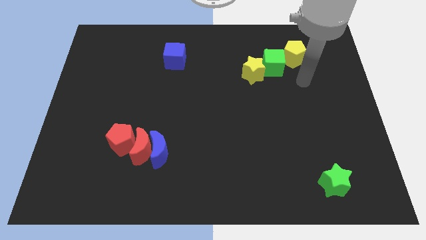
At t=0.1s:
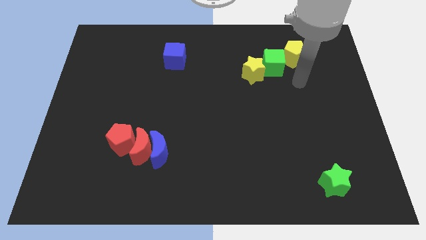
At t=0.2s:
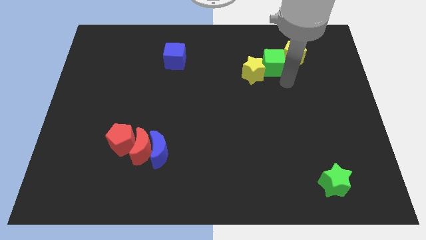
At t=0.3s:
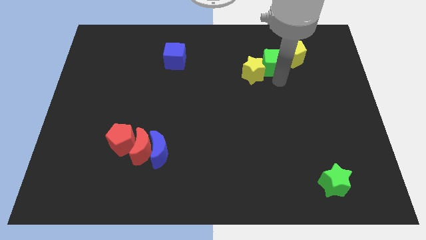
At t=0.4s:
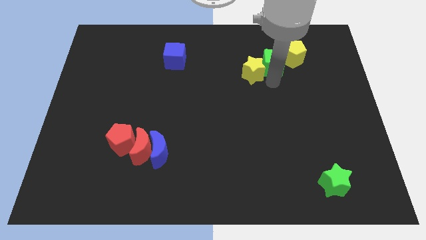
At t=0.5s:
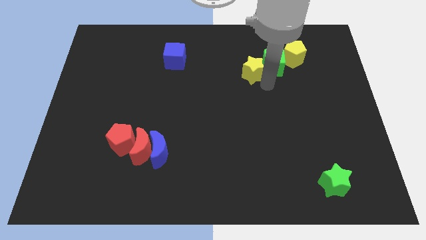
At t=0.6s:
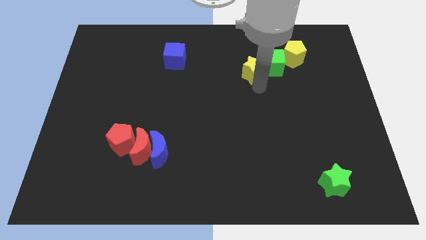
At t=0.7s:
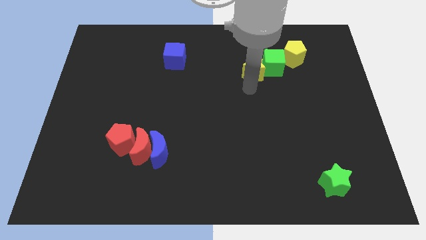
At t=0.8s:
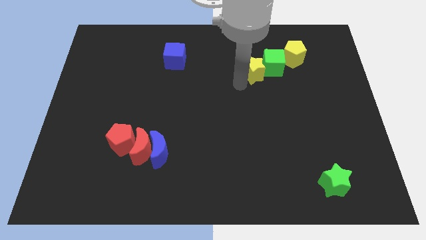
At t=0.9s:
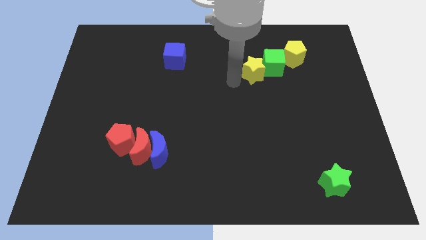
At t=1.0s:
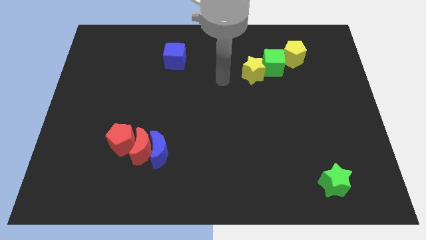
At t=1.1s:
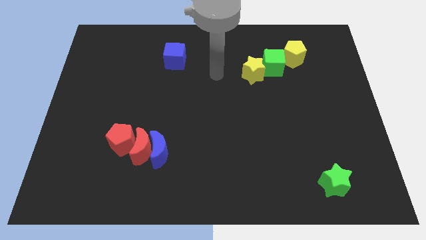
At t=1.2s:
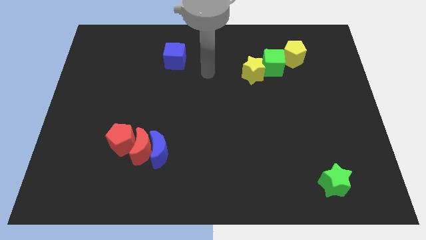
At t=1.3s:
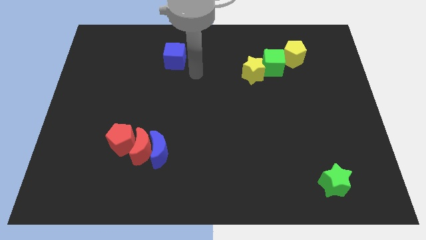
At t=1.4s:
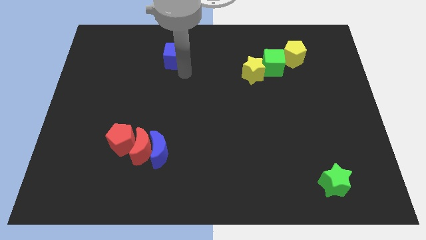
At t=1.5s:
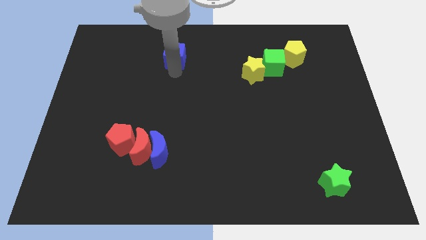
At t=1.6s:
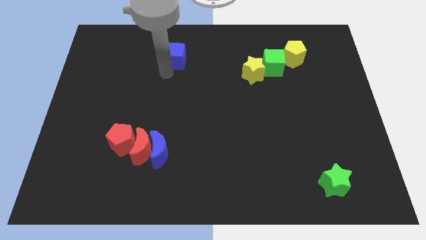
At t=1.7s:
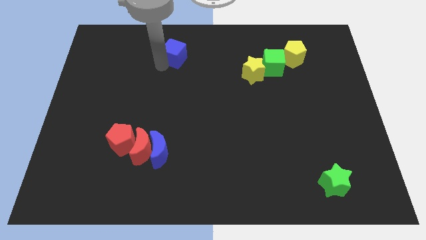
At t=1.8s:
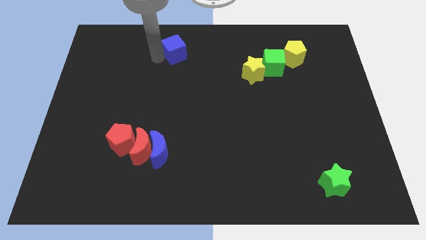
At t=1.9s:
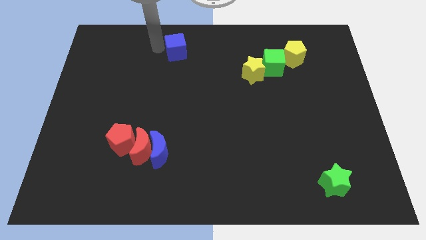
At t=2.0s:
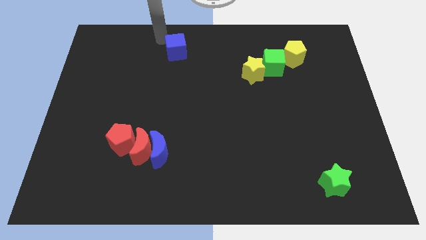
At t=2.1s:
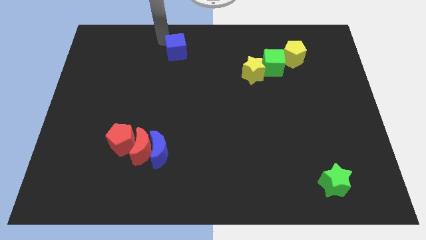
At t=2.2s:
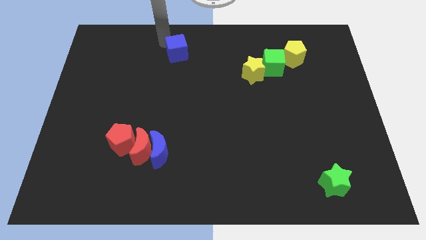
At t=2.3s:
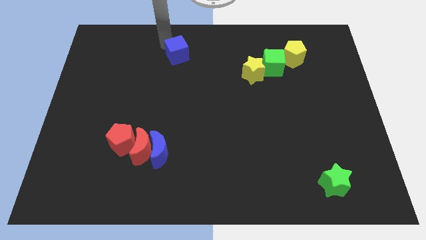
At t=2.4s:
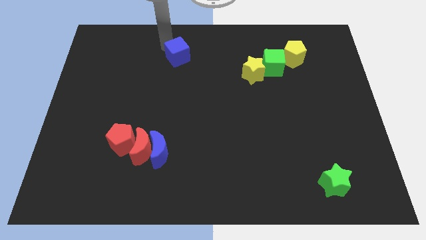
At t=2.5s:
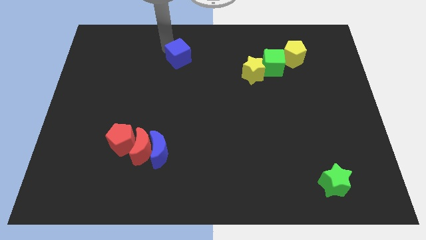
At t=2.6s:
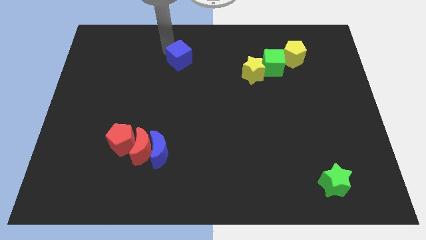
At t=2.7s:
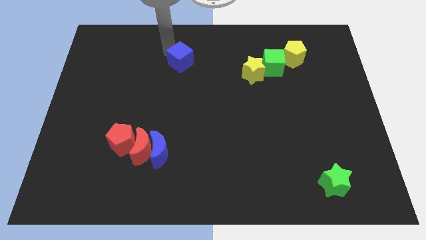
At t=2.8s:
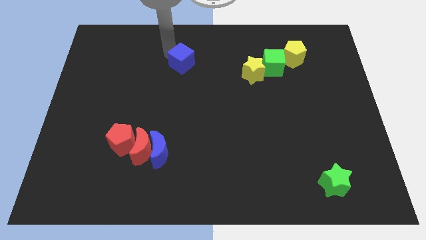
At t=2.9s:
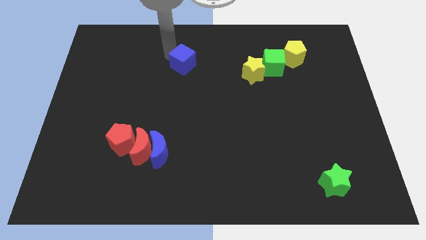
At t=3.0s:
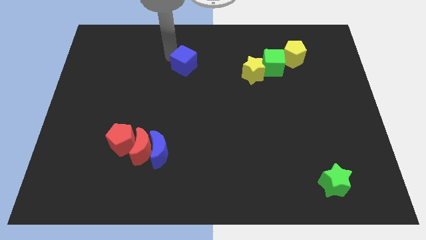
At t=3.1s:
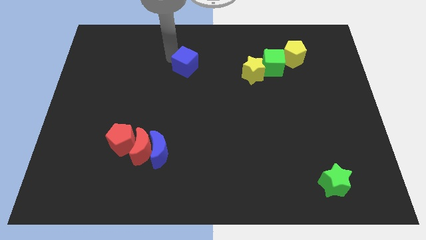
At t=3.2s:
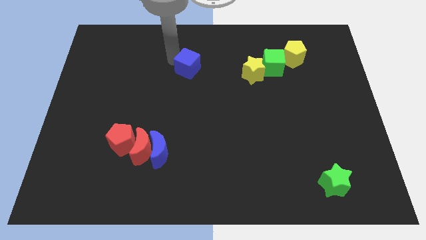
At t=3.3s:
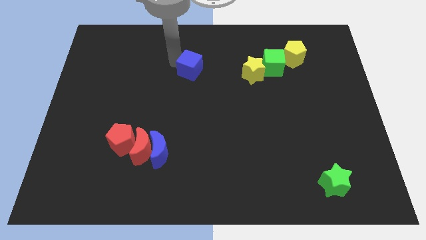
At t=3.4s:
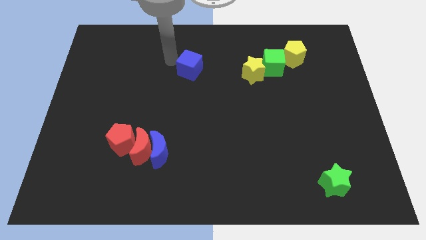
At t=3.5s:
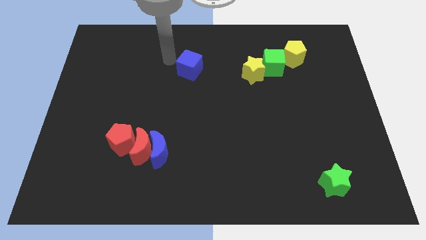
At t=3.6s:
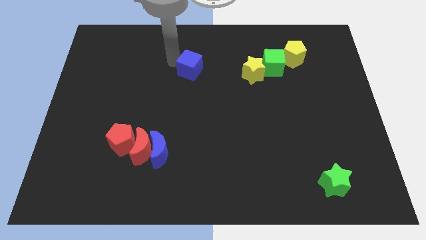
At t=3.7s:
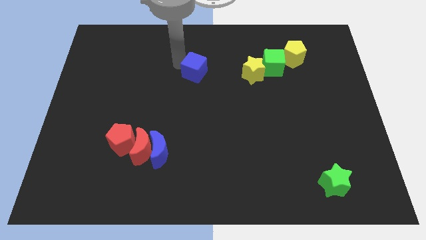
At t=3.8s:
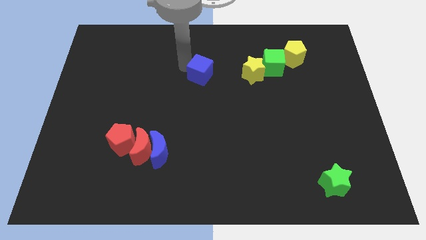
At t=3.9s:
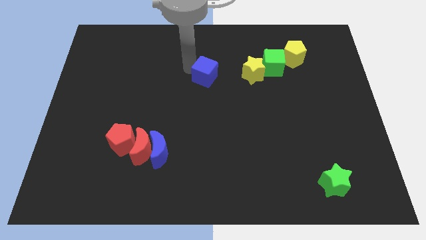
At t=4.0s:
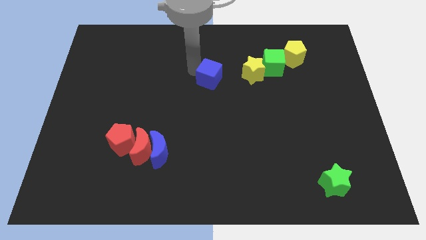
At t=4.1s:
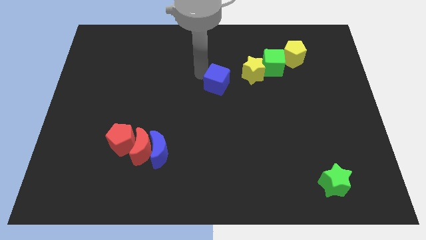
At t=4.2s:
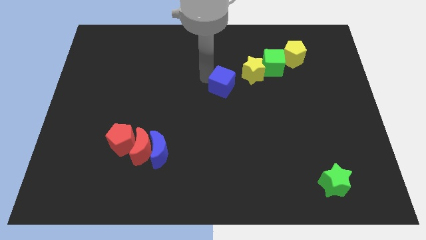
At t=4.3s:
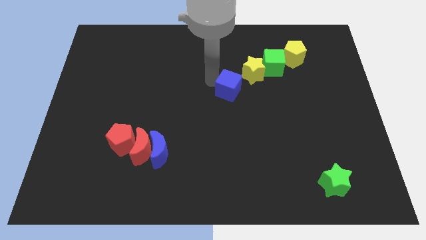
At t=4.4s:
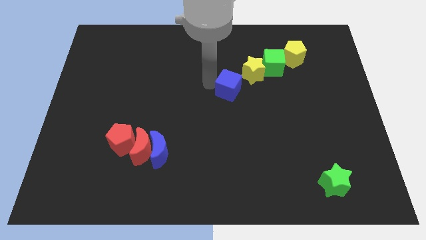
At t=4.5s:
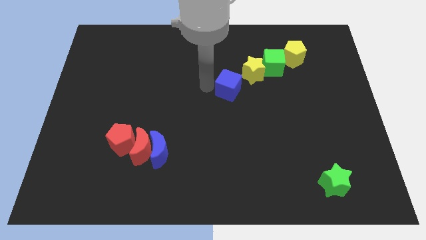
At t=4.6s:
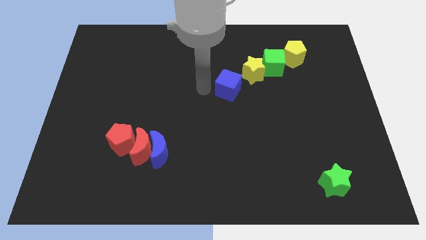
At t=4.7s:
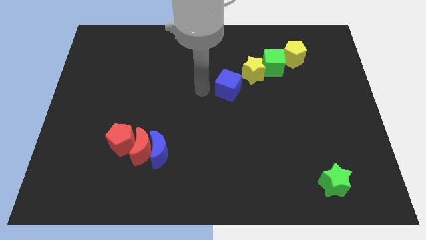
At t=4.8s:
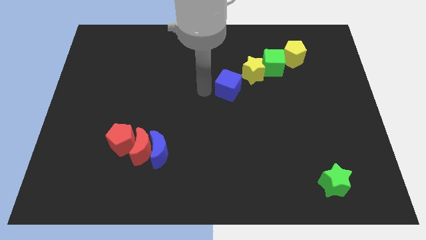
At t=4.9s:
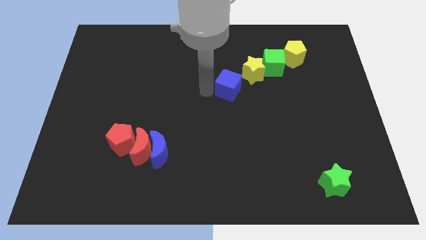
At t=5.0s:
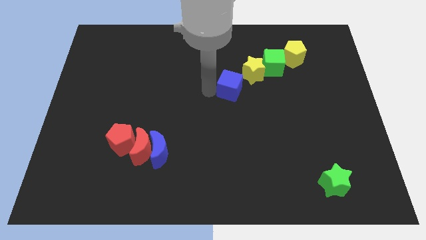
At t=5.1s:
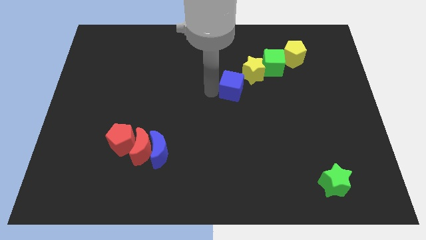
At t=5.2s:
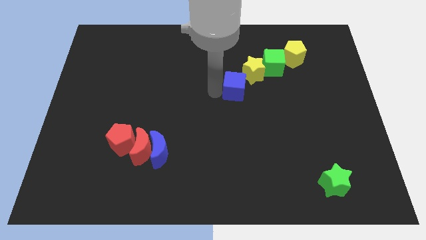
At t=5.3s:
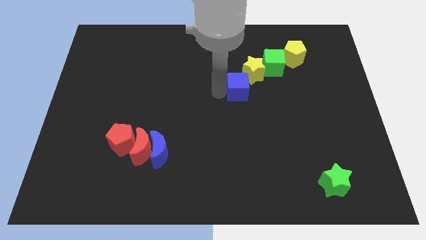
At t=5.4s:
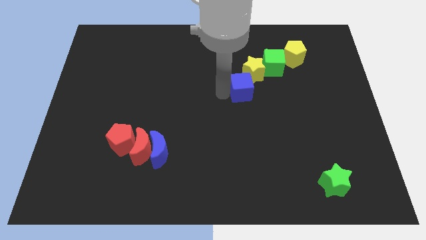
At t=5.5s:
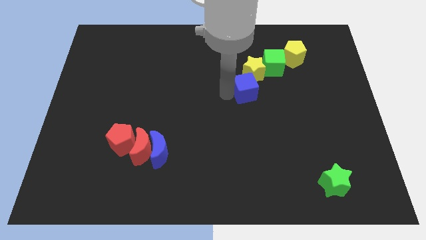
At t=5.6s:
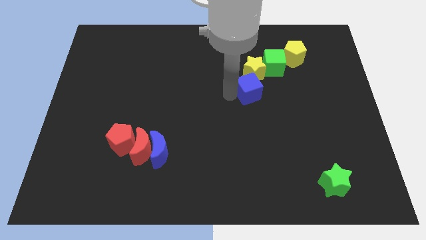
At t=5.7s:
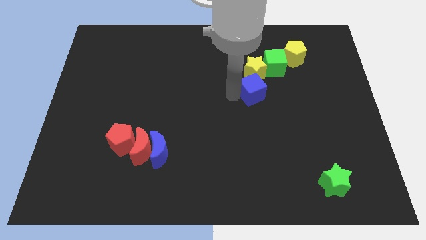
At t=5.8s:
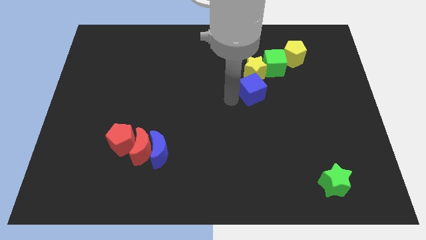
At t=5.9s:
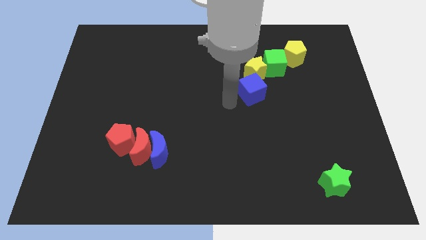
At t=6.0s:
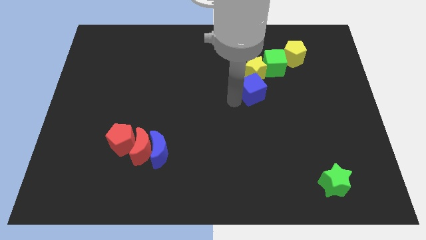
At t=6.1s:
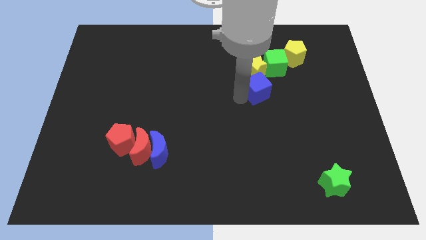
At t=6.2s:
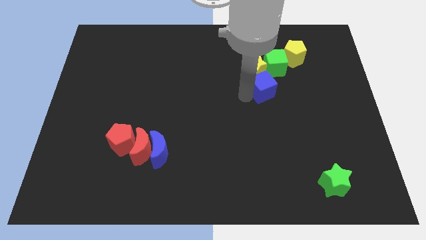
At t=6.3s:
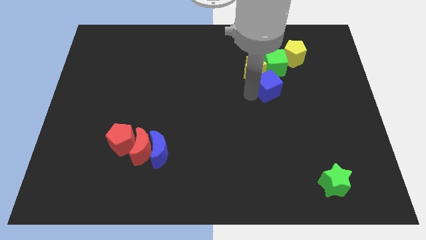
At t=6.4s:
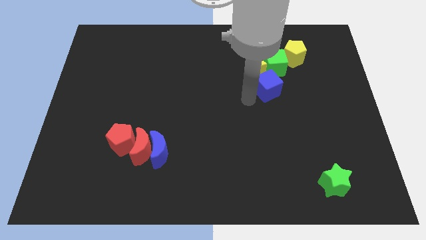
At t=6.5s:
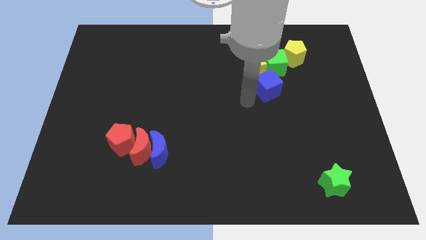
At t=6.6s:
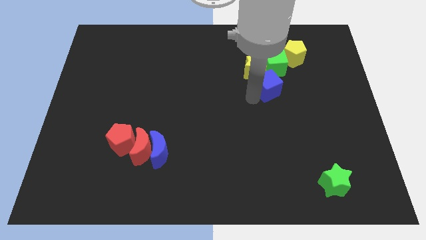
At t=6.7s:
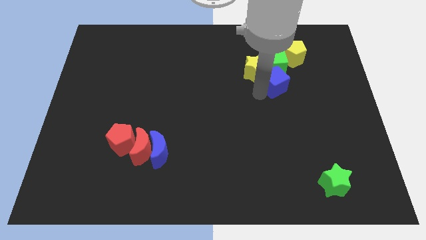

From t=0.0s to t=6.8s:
move the blue cube right of the yellow star

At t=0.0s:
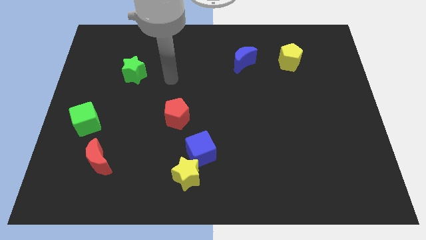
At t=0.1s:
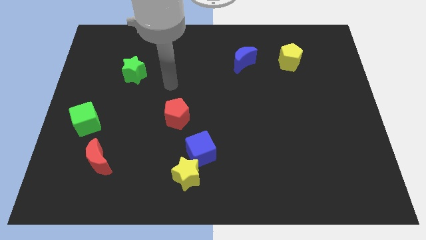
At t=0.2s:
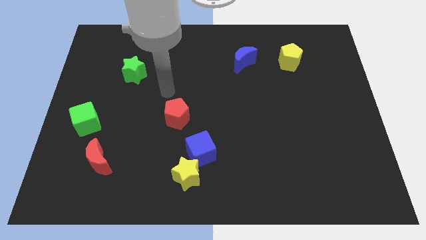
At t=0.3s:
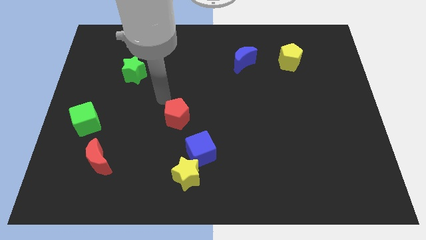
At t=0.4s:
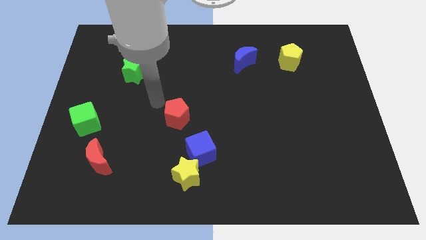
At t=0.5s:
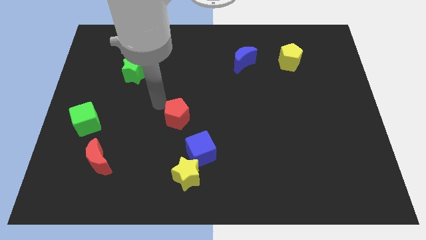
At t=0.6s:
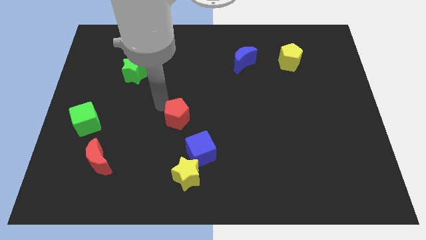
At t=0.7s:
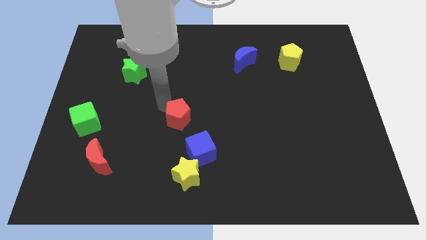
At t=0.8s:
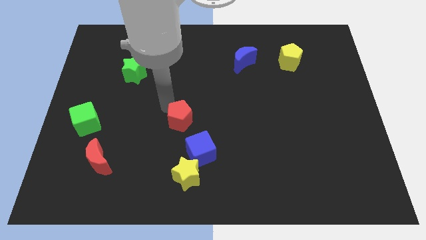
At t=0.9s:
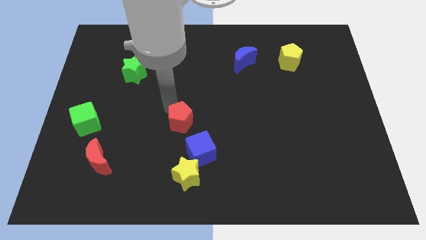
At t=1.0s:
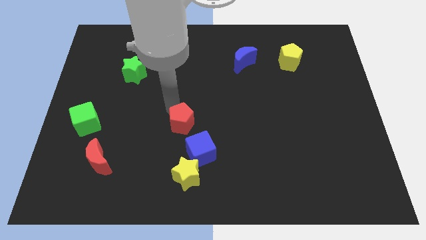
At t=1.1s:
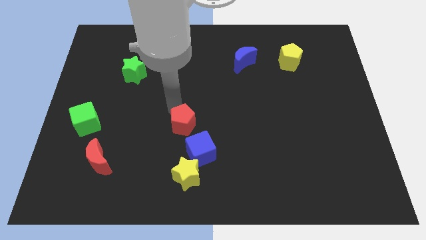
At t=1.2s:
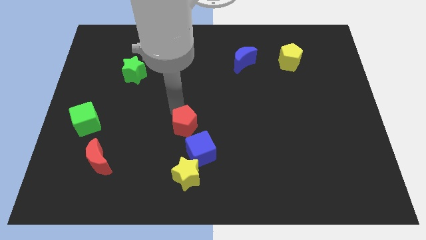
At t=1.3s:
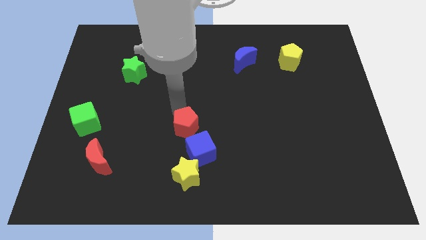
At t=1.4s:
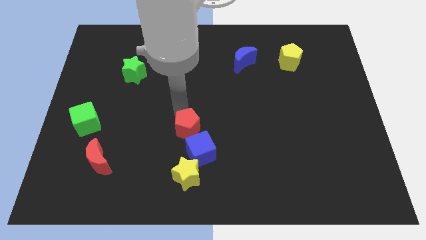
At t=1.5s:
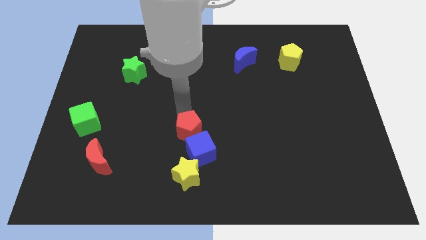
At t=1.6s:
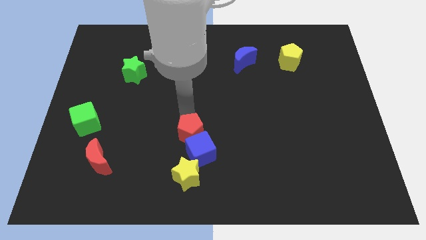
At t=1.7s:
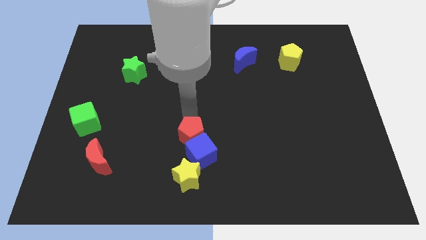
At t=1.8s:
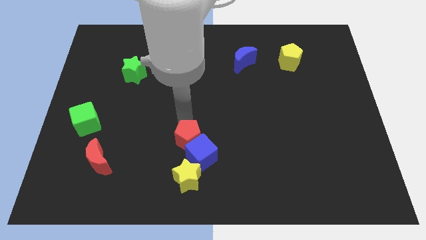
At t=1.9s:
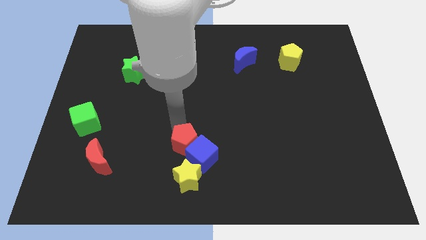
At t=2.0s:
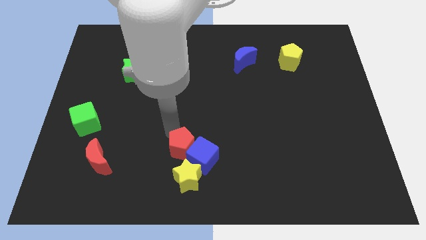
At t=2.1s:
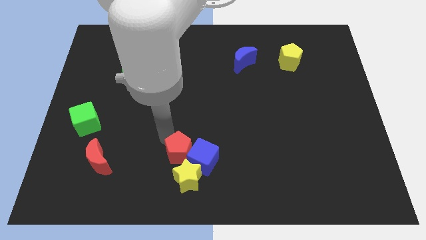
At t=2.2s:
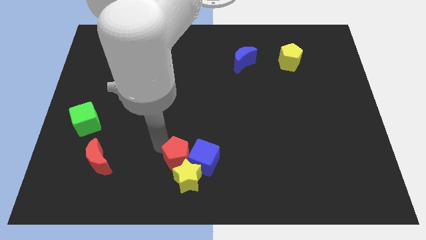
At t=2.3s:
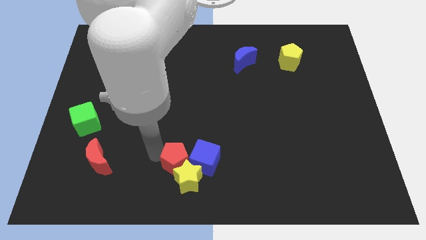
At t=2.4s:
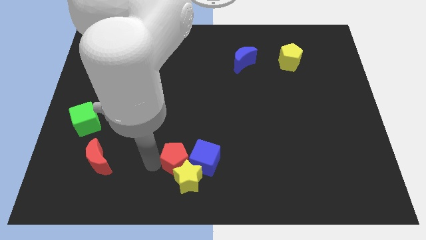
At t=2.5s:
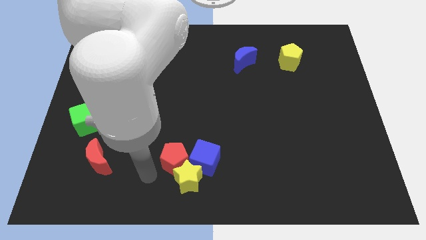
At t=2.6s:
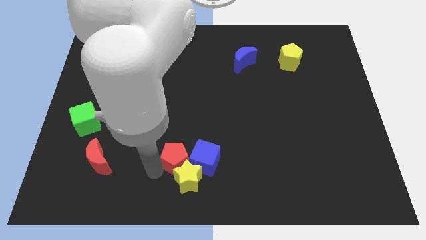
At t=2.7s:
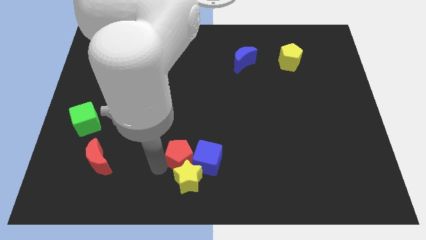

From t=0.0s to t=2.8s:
move the red pentagon diagonally up and to the right of the yellow star
